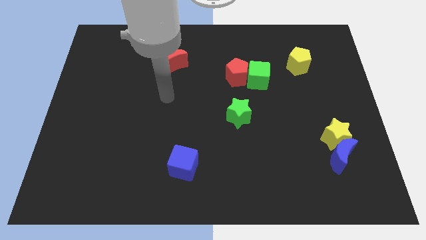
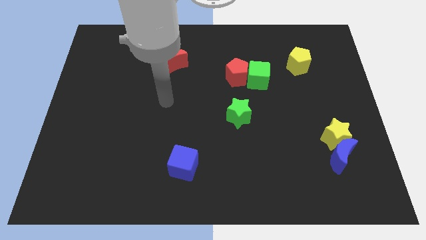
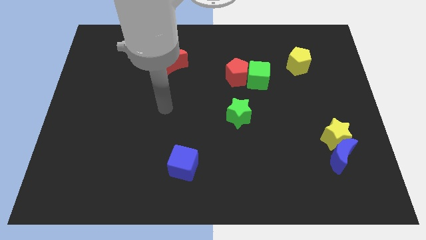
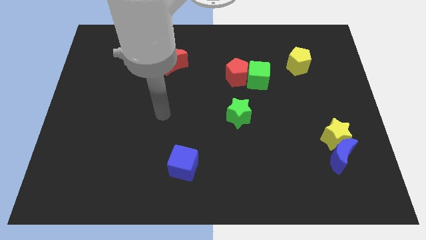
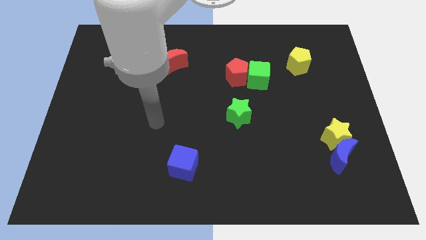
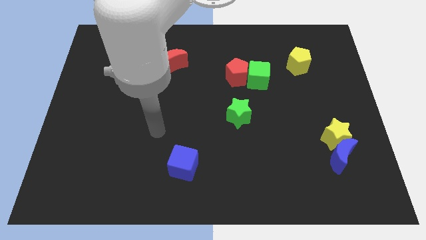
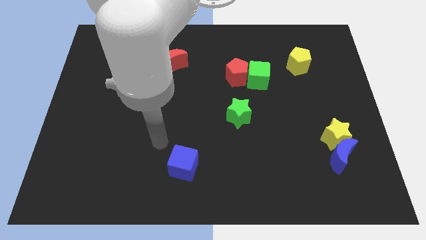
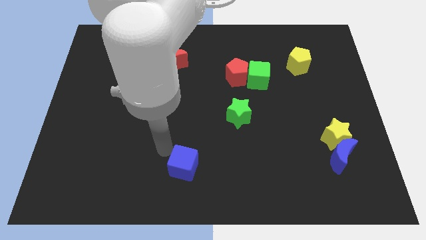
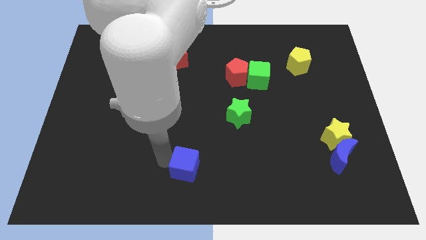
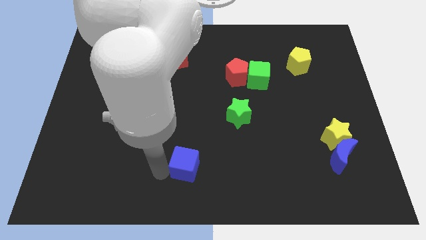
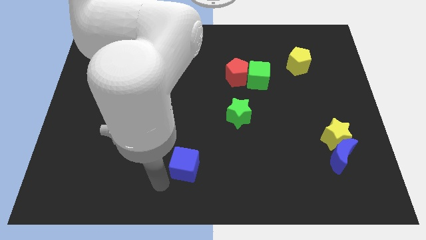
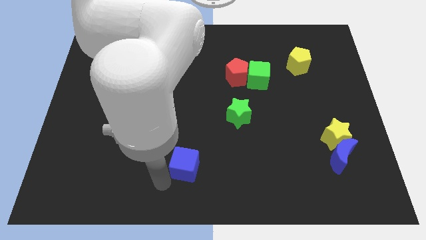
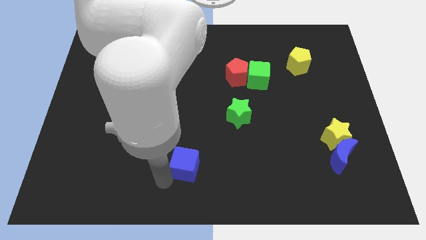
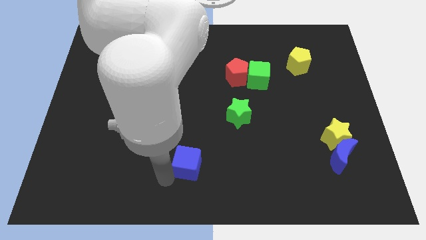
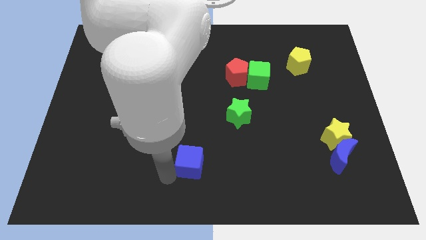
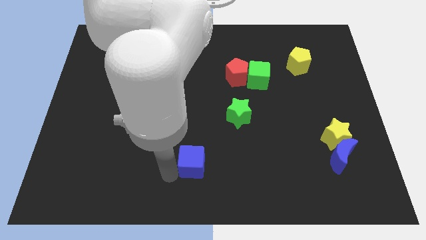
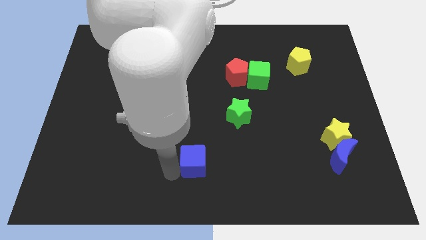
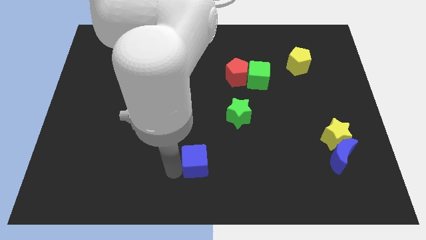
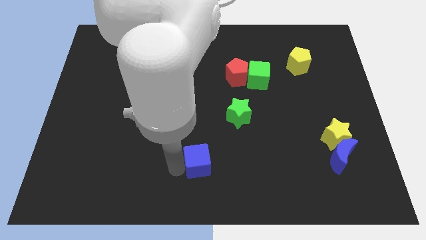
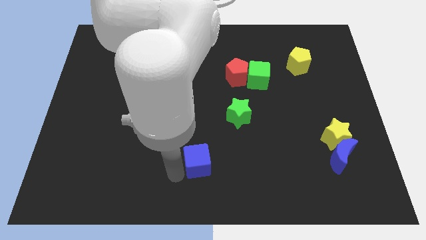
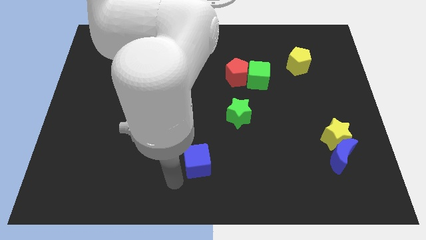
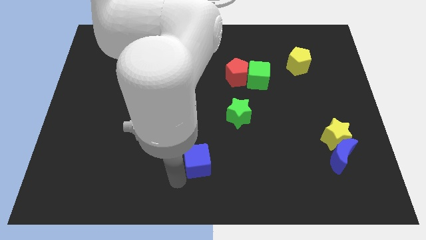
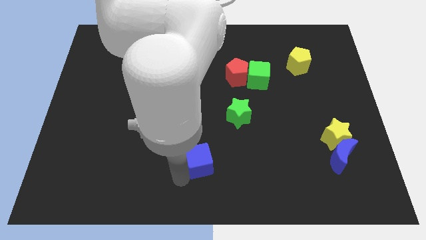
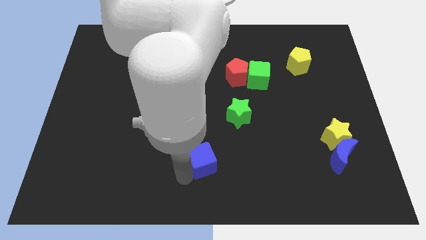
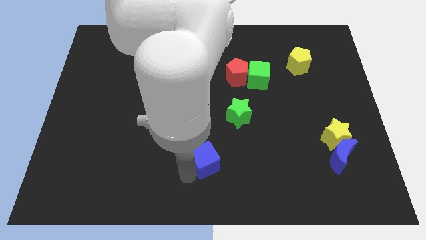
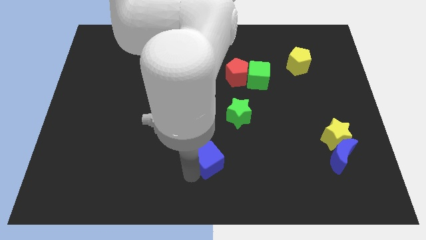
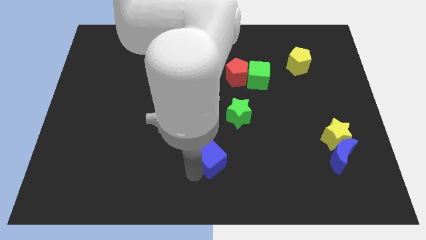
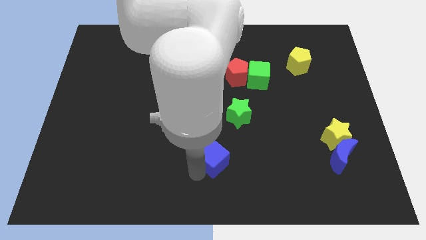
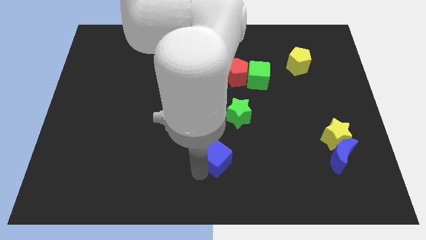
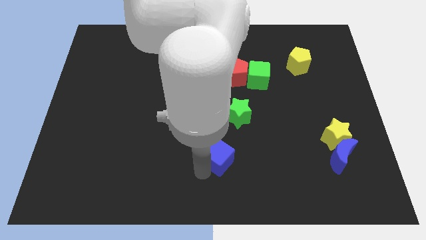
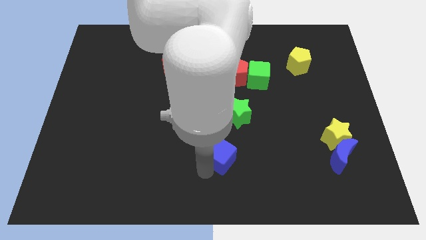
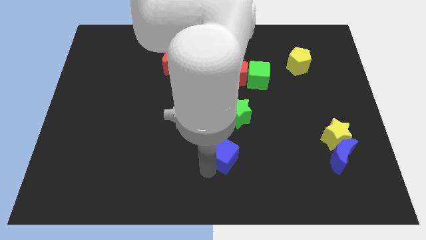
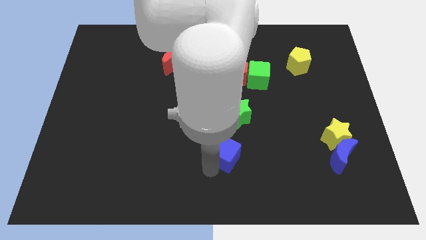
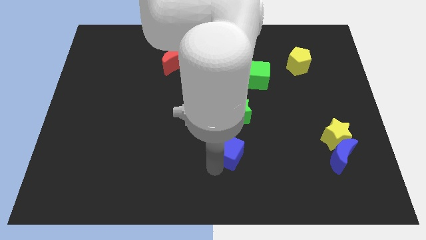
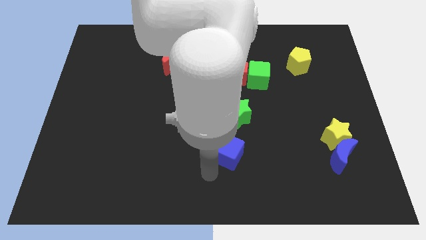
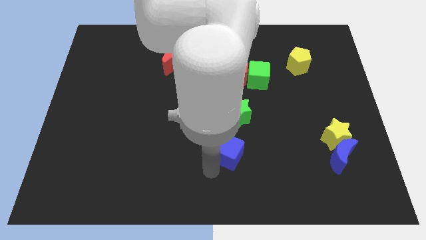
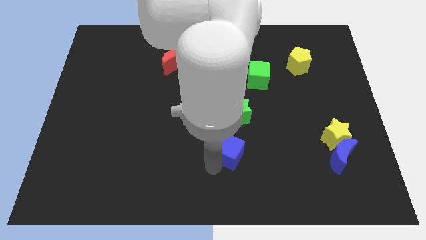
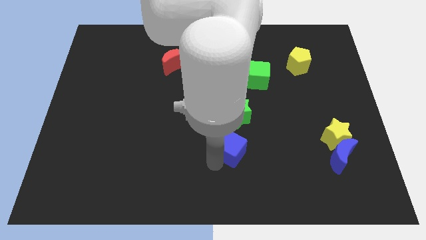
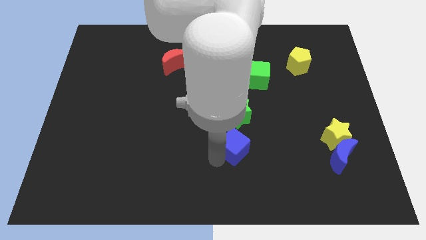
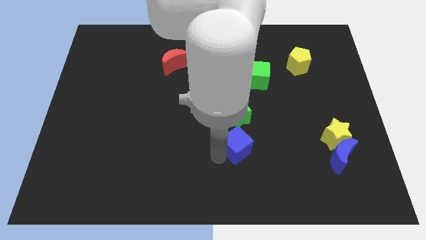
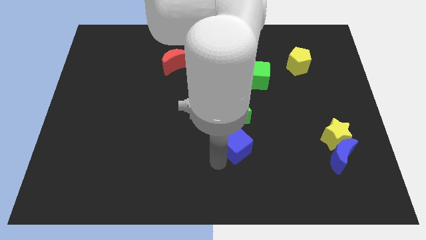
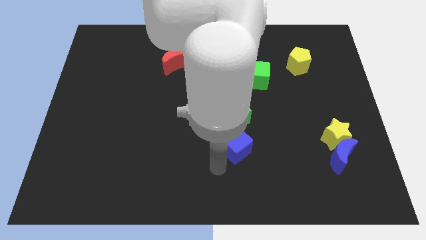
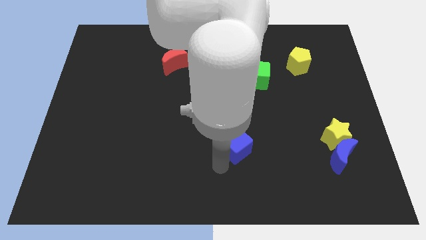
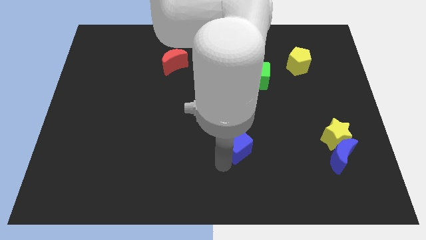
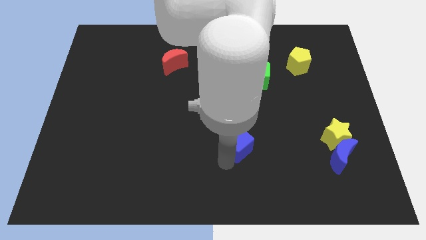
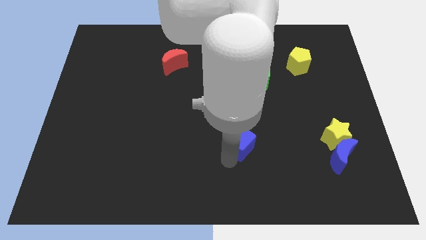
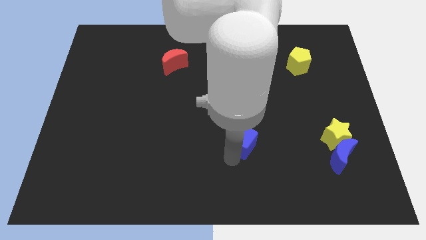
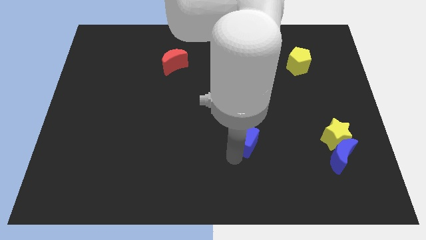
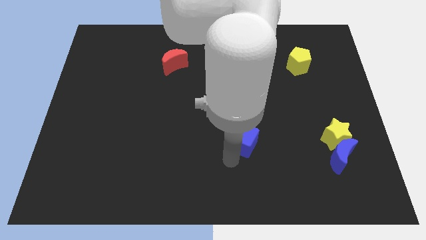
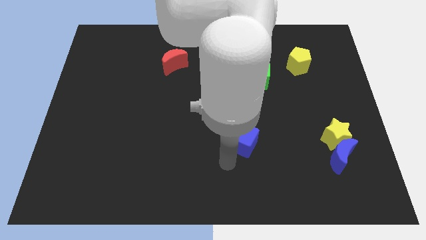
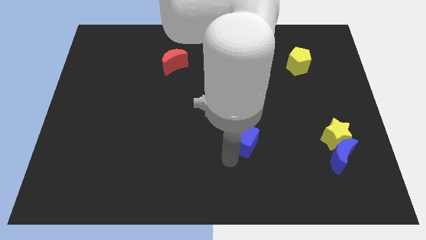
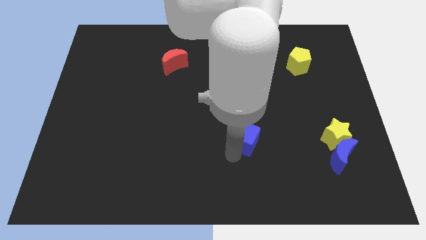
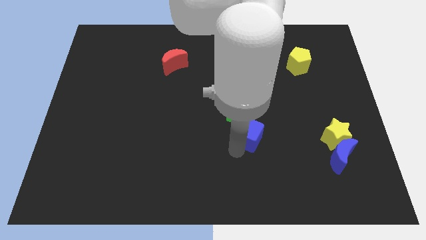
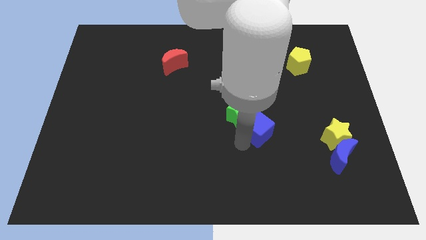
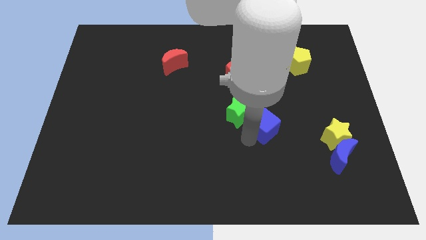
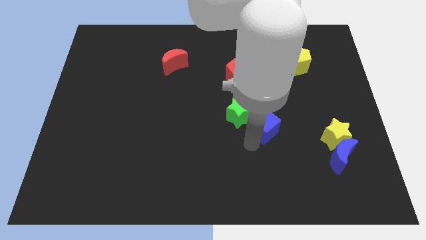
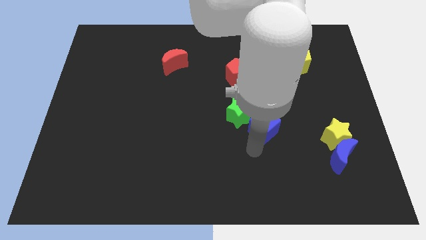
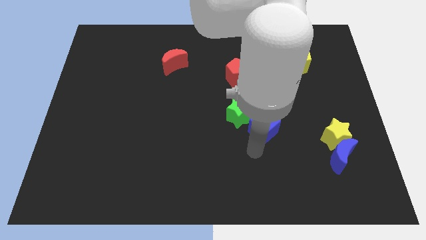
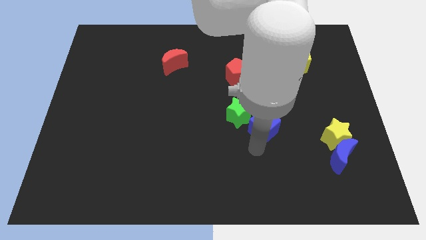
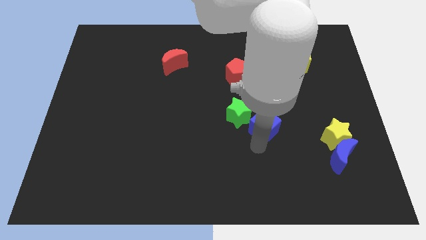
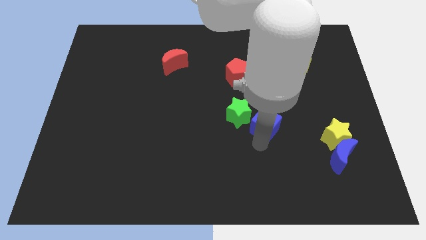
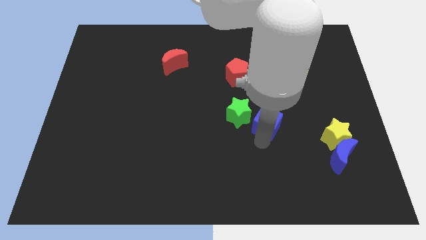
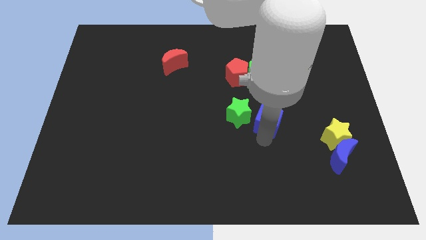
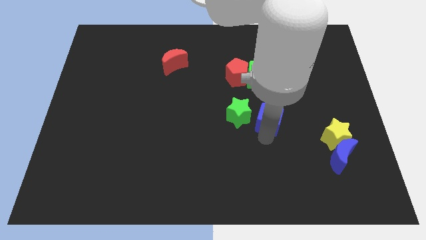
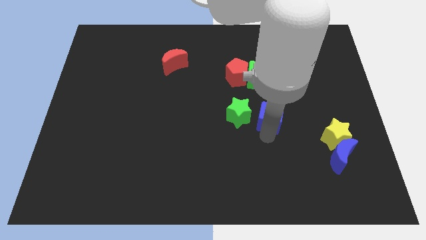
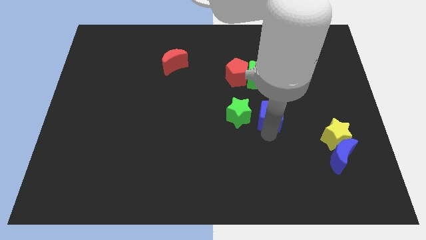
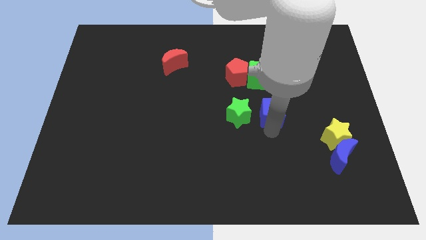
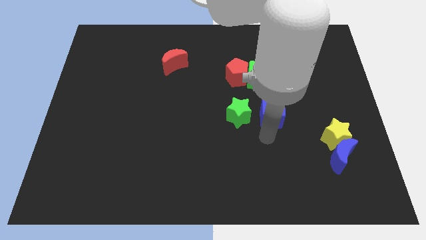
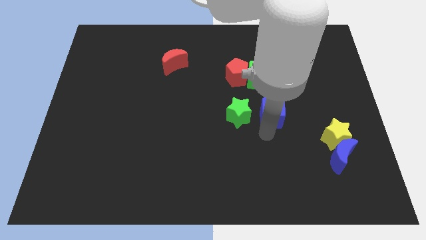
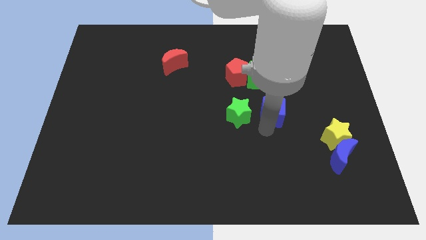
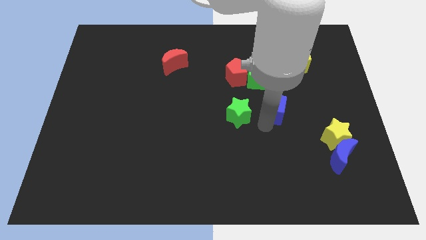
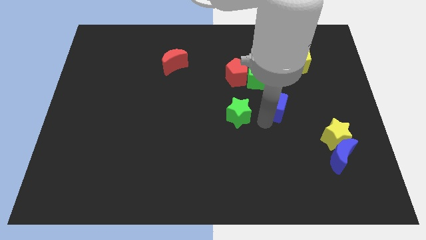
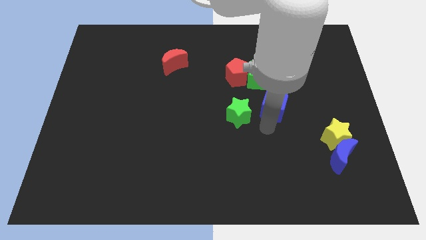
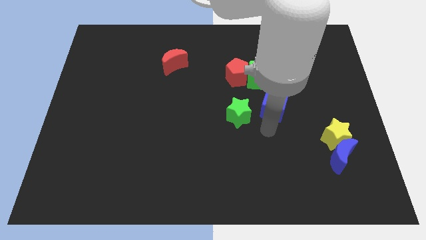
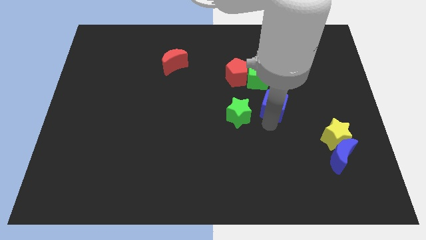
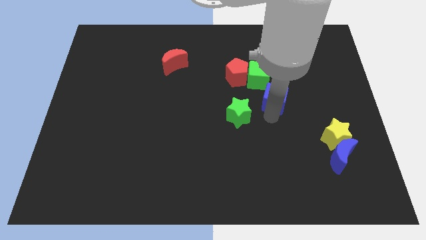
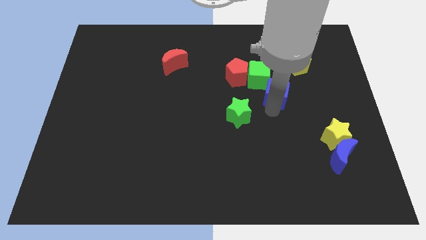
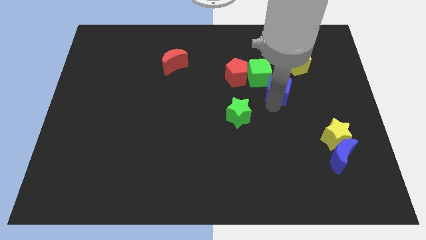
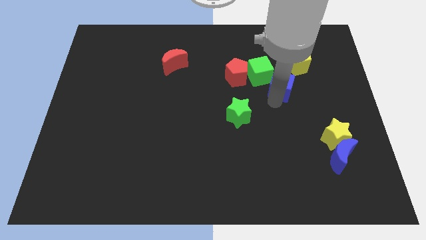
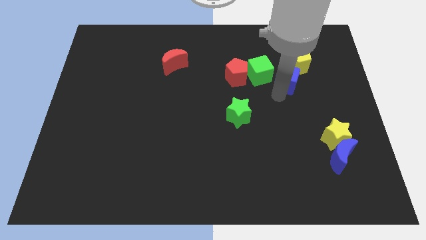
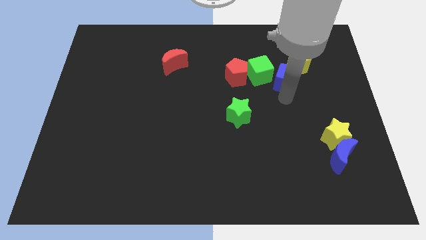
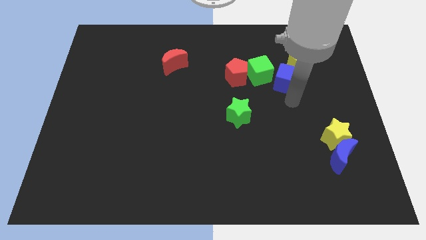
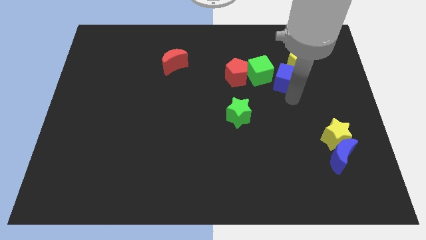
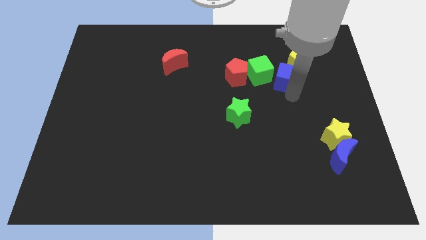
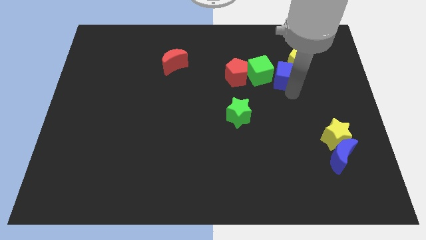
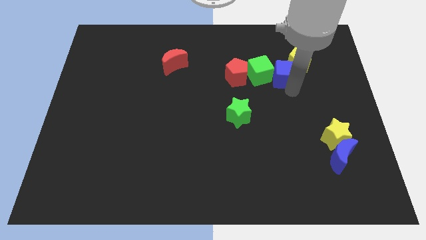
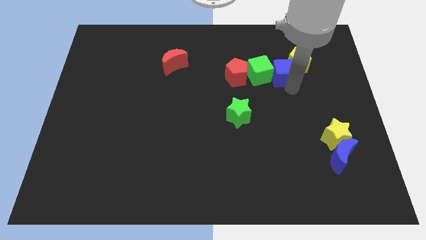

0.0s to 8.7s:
move the blue cube to the top right side of the green cube
